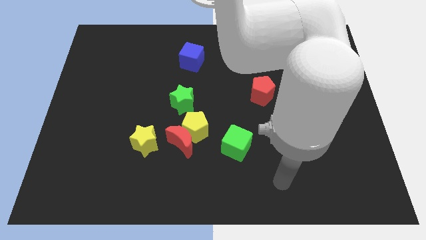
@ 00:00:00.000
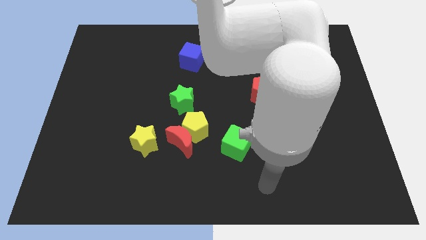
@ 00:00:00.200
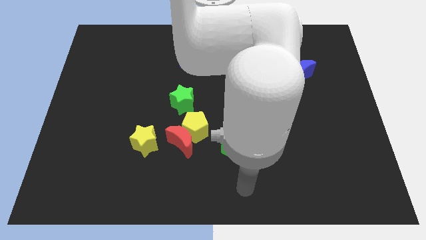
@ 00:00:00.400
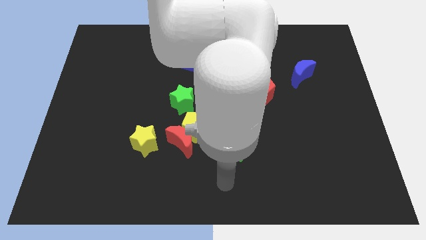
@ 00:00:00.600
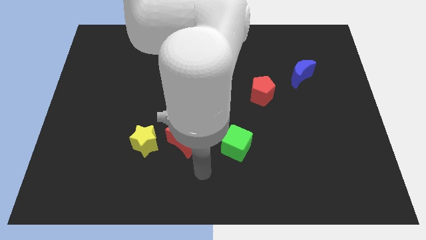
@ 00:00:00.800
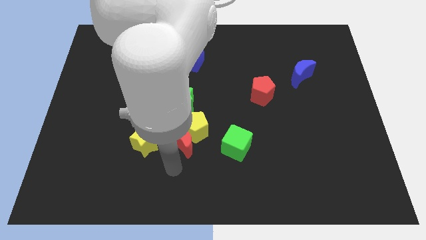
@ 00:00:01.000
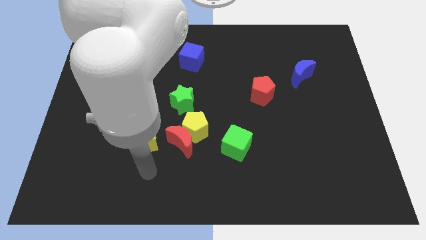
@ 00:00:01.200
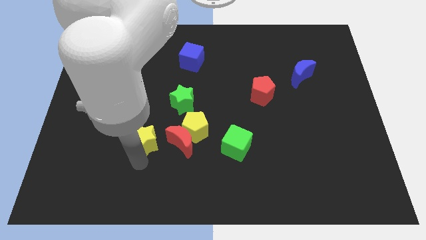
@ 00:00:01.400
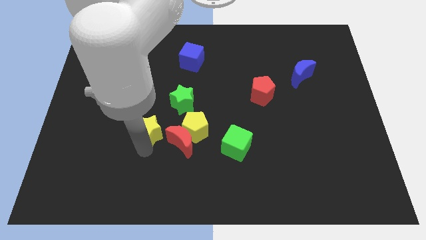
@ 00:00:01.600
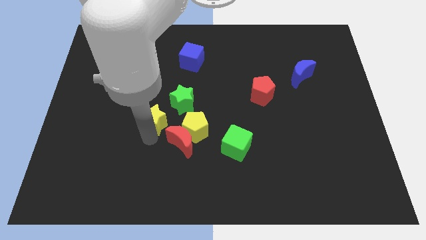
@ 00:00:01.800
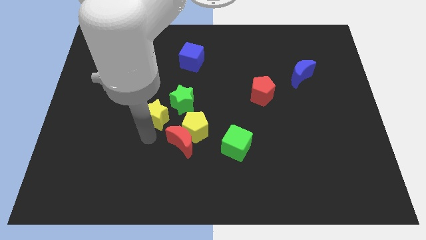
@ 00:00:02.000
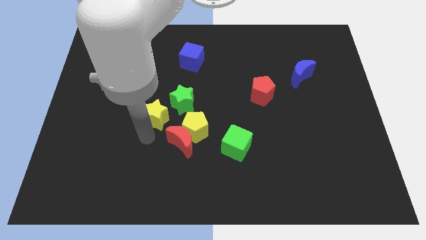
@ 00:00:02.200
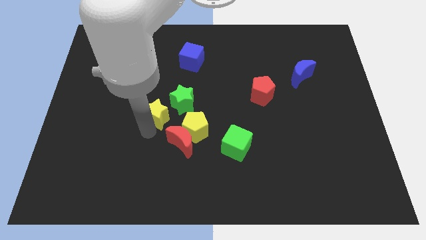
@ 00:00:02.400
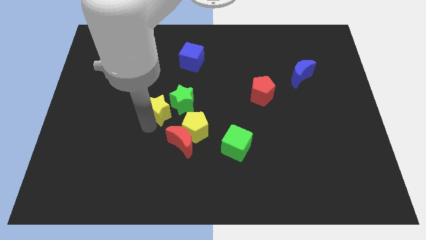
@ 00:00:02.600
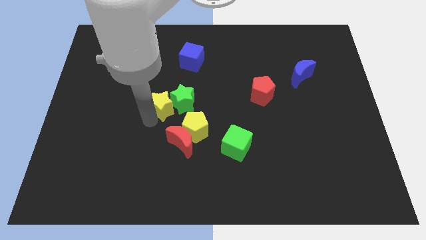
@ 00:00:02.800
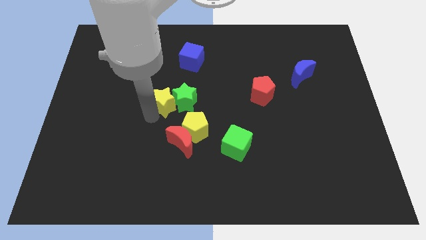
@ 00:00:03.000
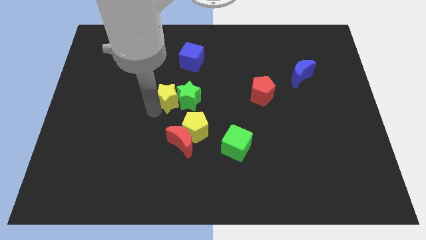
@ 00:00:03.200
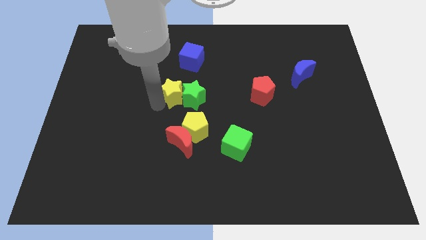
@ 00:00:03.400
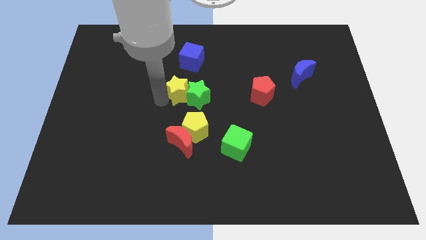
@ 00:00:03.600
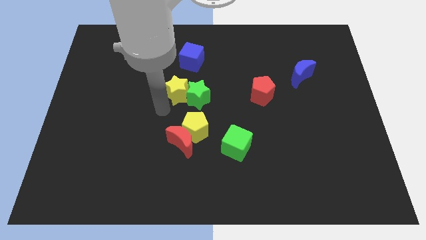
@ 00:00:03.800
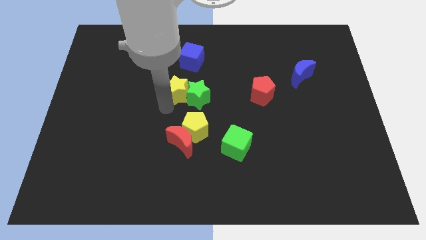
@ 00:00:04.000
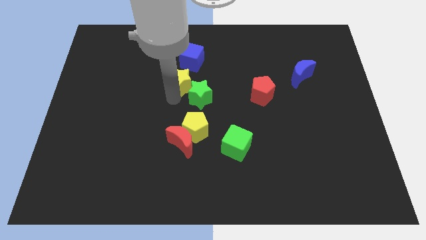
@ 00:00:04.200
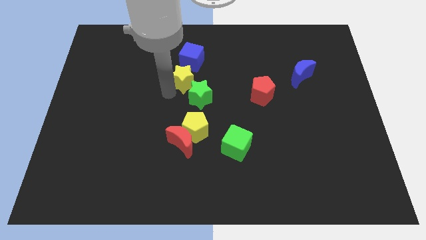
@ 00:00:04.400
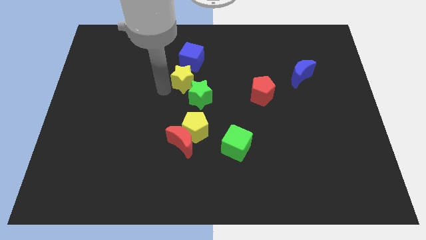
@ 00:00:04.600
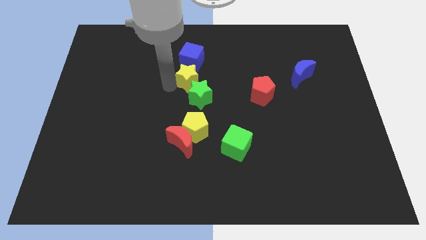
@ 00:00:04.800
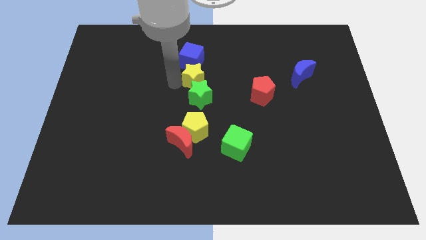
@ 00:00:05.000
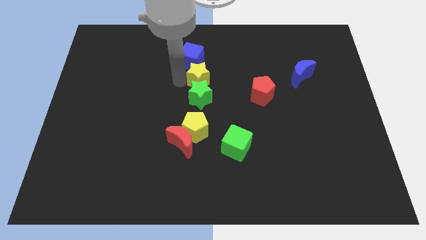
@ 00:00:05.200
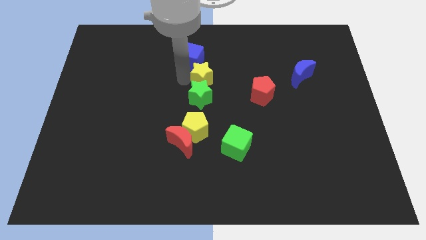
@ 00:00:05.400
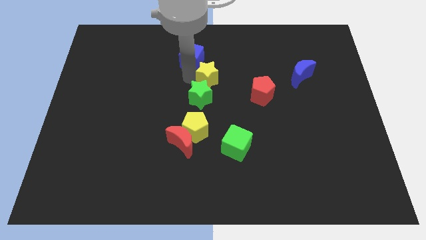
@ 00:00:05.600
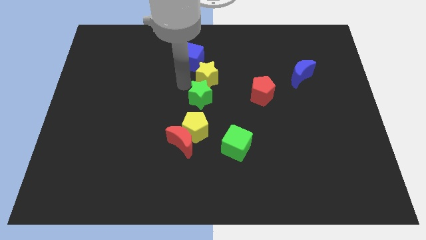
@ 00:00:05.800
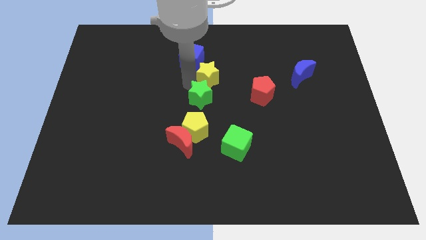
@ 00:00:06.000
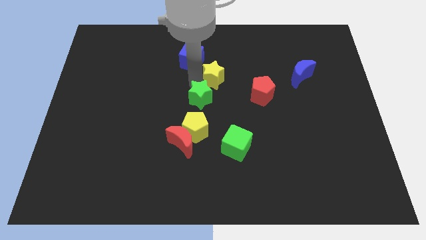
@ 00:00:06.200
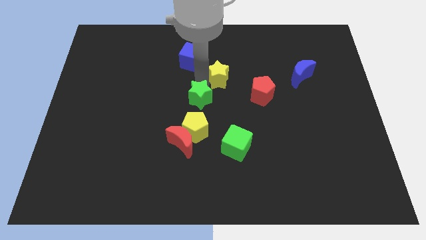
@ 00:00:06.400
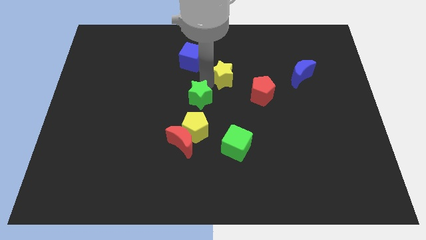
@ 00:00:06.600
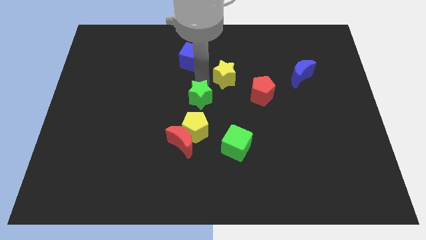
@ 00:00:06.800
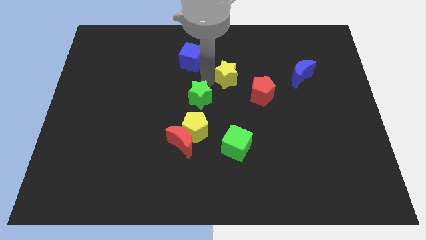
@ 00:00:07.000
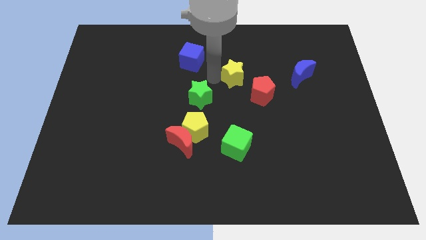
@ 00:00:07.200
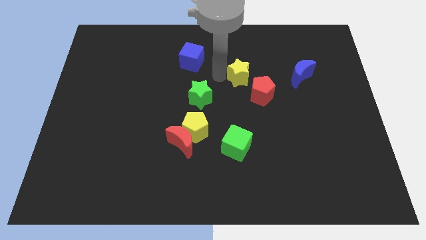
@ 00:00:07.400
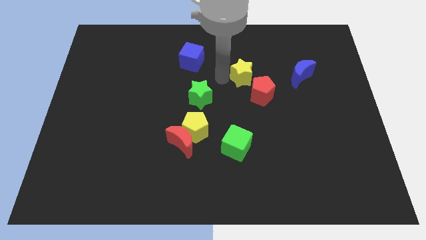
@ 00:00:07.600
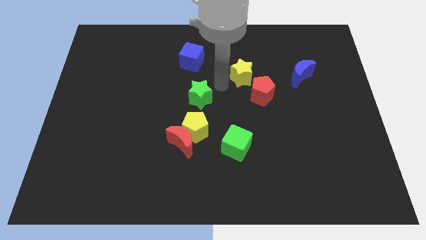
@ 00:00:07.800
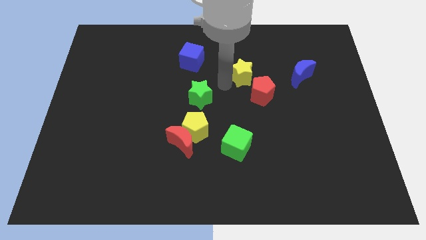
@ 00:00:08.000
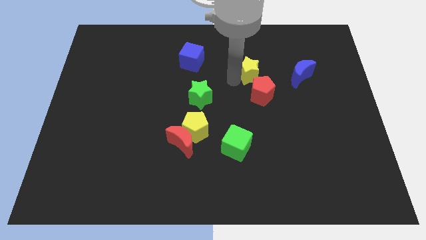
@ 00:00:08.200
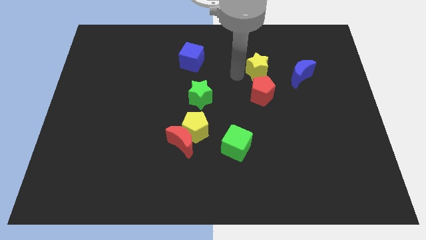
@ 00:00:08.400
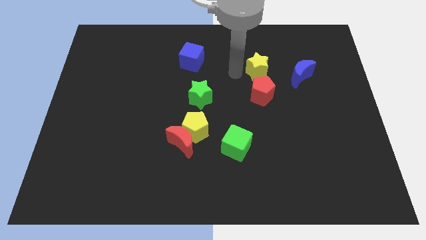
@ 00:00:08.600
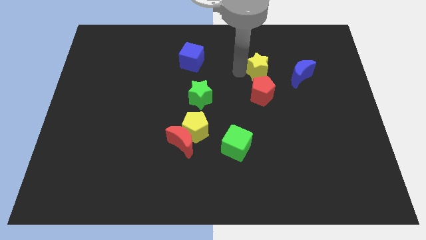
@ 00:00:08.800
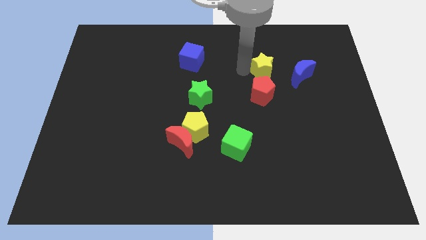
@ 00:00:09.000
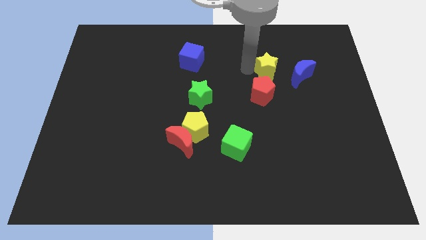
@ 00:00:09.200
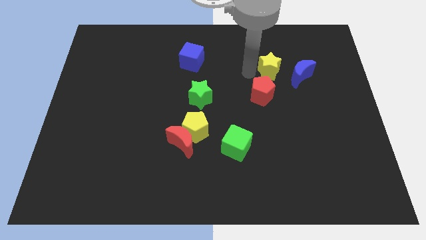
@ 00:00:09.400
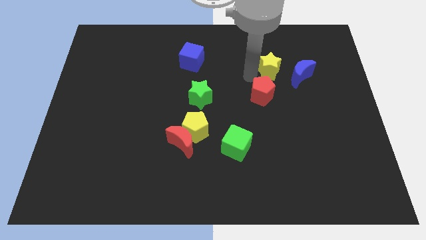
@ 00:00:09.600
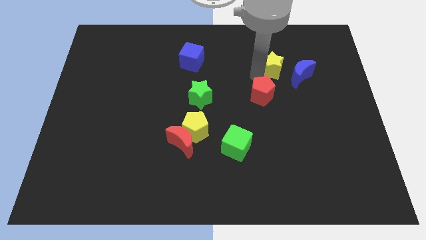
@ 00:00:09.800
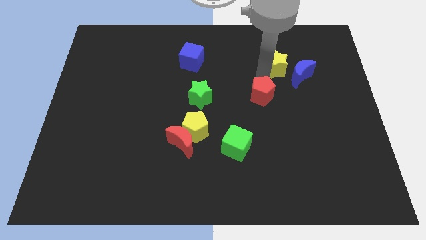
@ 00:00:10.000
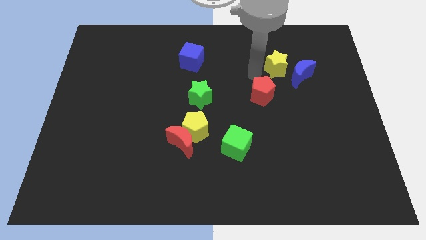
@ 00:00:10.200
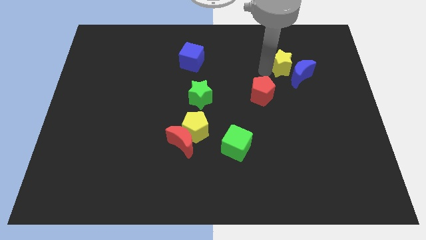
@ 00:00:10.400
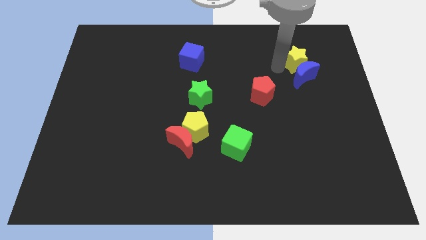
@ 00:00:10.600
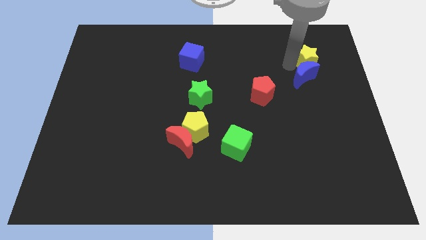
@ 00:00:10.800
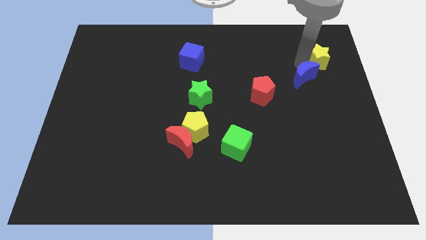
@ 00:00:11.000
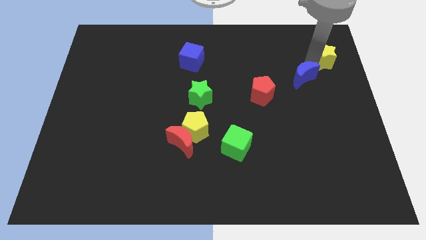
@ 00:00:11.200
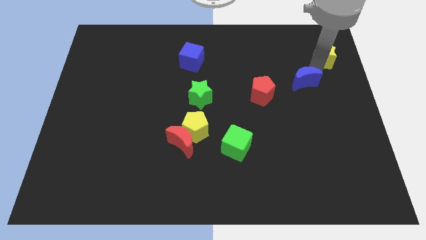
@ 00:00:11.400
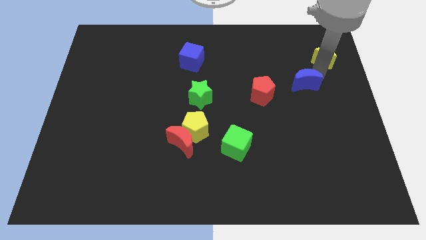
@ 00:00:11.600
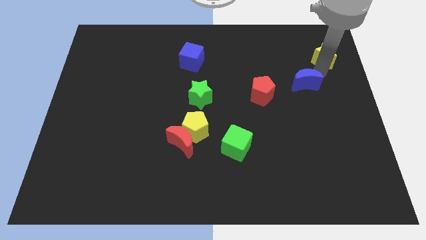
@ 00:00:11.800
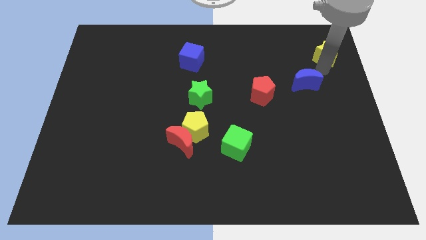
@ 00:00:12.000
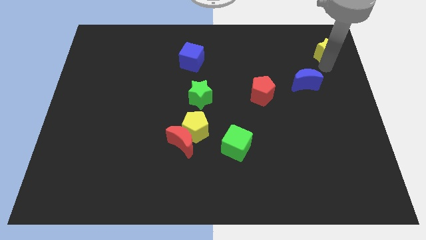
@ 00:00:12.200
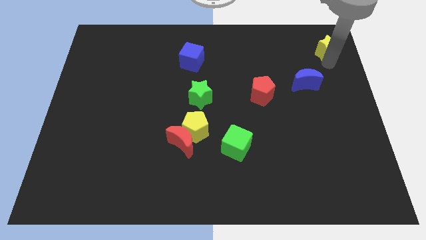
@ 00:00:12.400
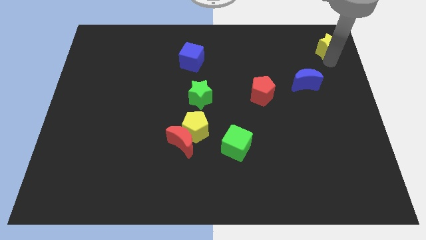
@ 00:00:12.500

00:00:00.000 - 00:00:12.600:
push the yellow star to the top right of the board

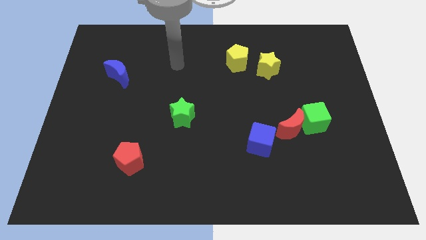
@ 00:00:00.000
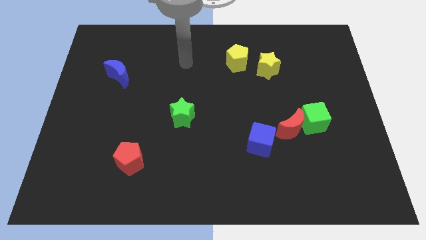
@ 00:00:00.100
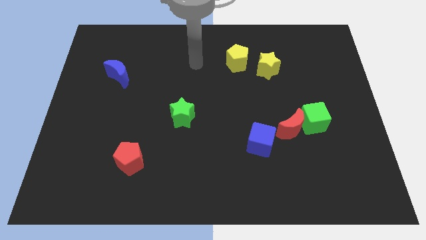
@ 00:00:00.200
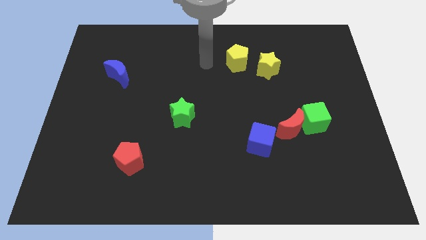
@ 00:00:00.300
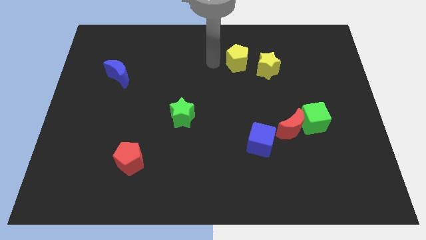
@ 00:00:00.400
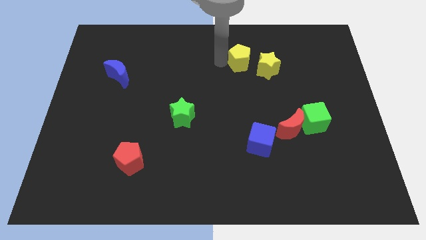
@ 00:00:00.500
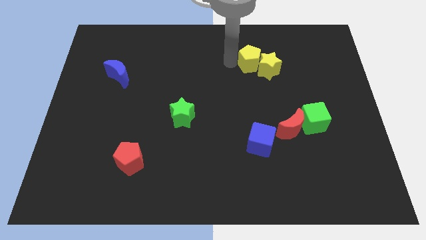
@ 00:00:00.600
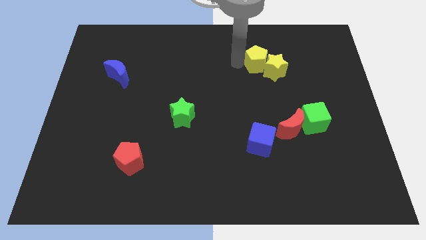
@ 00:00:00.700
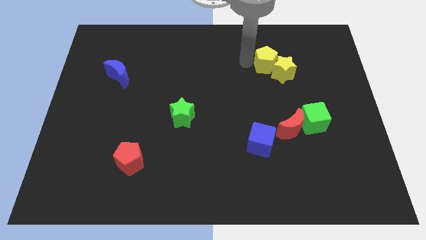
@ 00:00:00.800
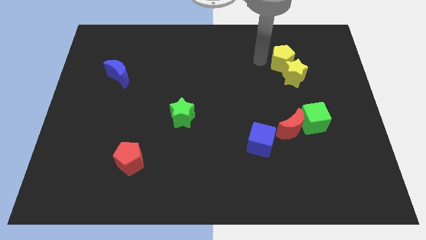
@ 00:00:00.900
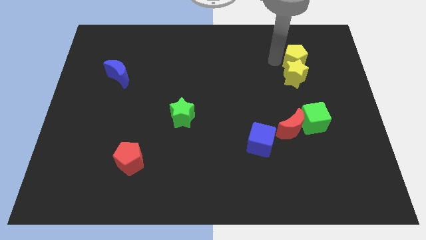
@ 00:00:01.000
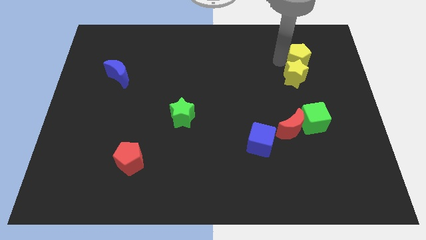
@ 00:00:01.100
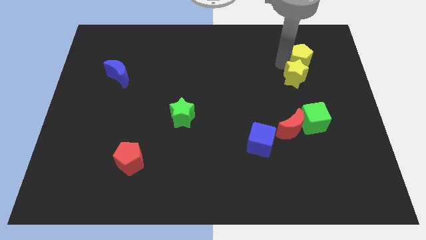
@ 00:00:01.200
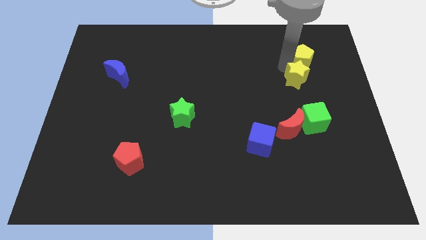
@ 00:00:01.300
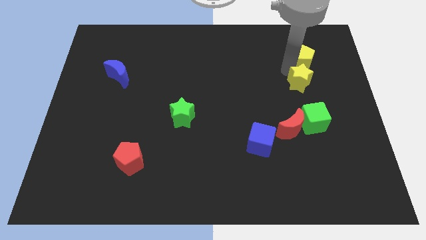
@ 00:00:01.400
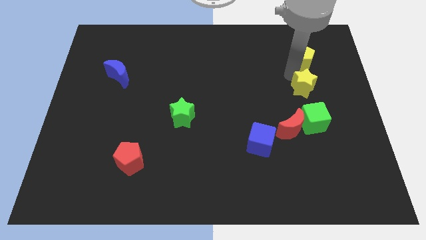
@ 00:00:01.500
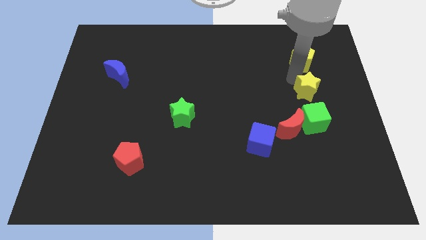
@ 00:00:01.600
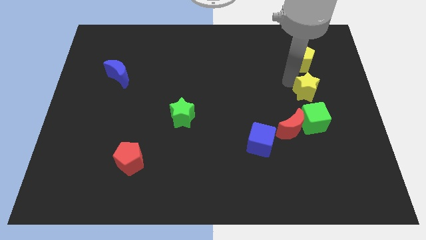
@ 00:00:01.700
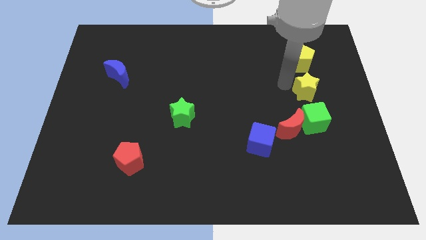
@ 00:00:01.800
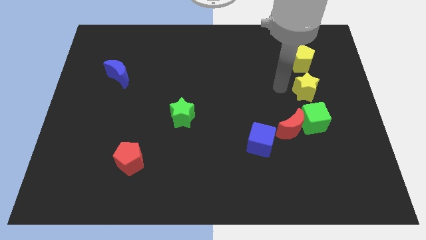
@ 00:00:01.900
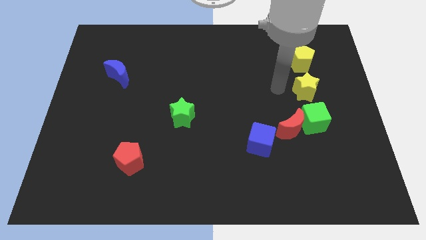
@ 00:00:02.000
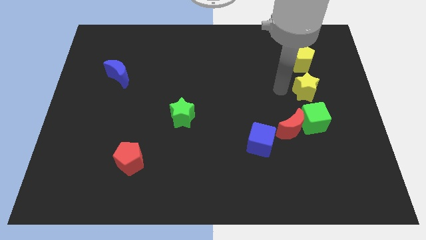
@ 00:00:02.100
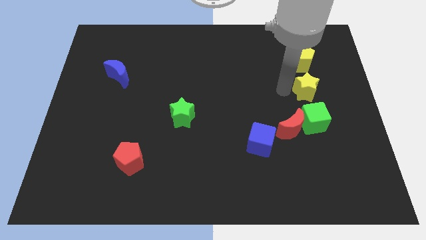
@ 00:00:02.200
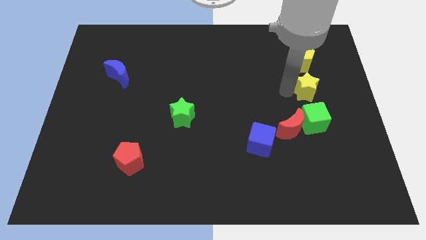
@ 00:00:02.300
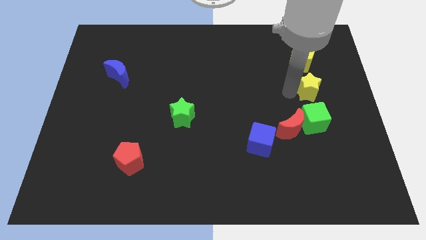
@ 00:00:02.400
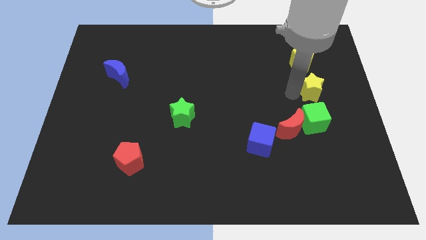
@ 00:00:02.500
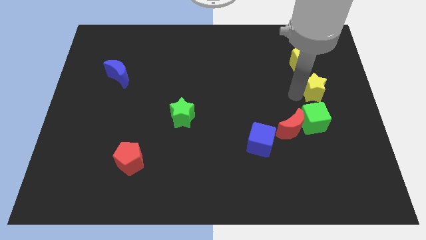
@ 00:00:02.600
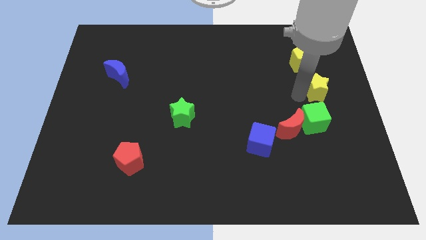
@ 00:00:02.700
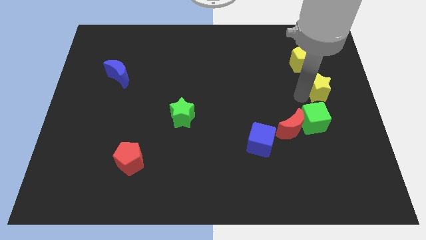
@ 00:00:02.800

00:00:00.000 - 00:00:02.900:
move the yellow star to the right side
